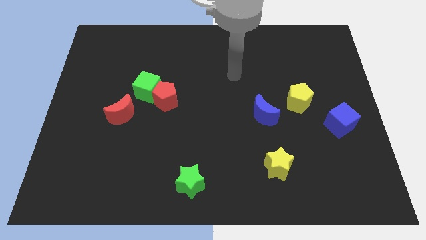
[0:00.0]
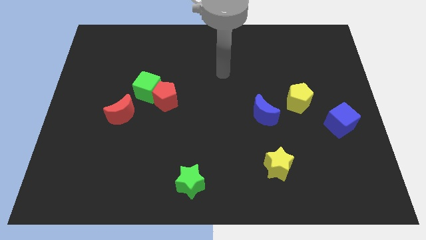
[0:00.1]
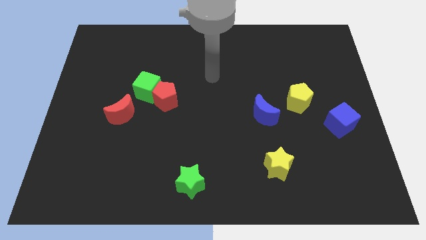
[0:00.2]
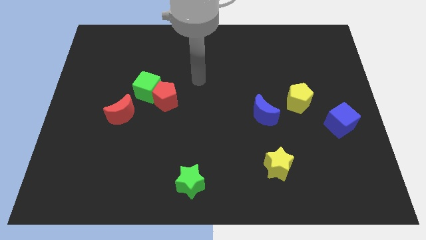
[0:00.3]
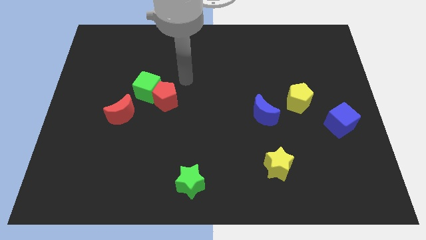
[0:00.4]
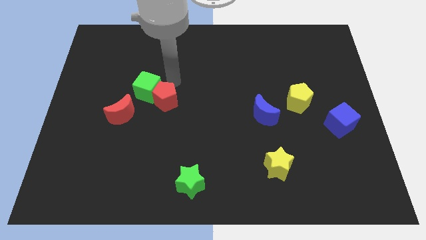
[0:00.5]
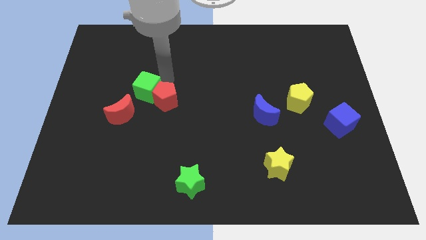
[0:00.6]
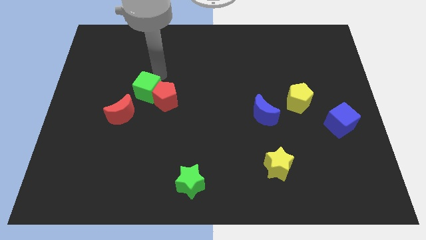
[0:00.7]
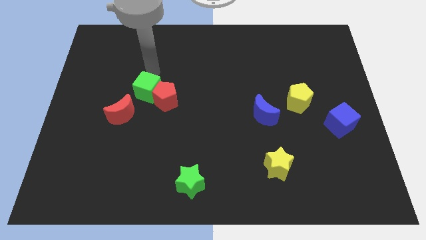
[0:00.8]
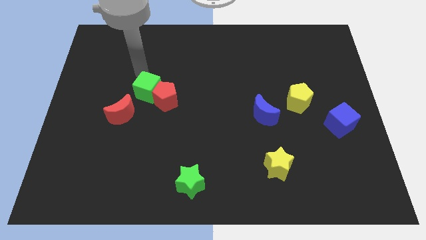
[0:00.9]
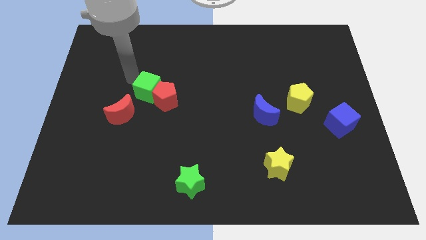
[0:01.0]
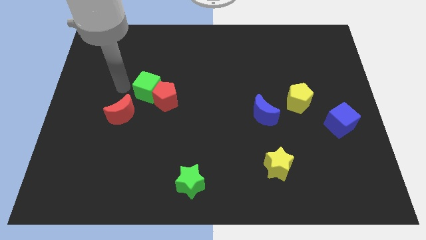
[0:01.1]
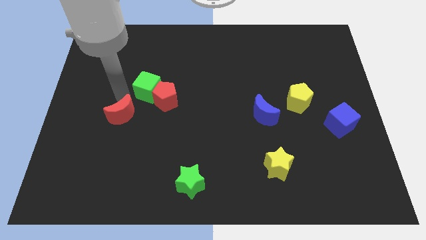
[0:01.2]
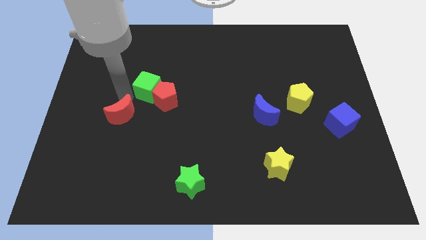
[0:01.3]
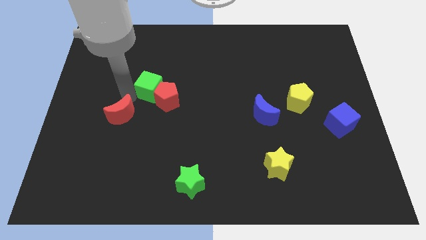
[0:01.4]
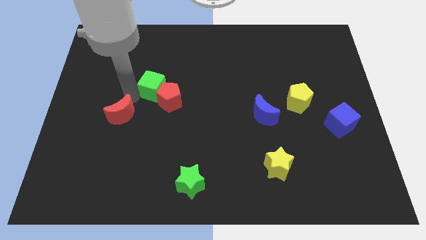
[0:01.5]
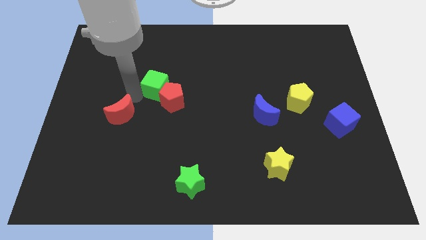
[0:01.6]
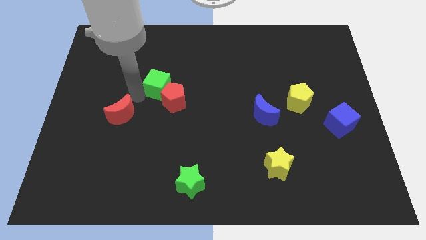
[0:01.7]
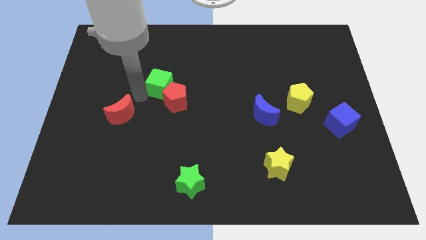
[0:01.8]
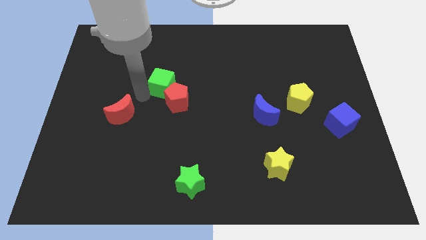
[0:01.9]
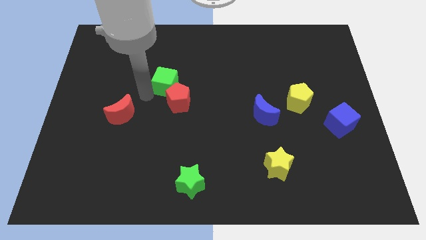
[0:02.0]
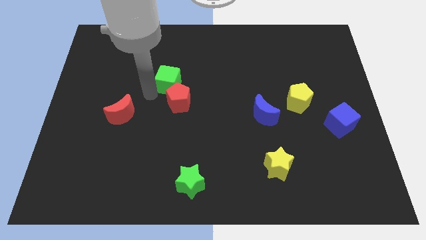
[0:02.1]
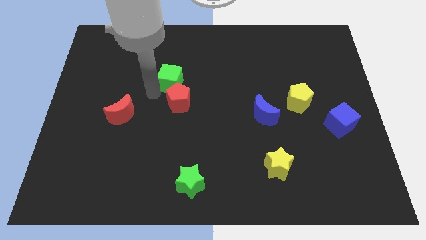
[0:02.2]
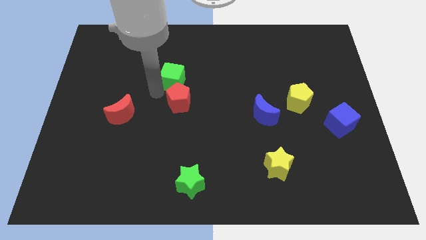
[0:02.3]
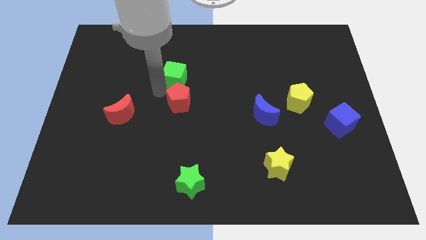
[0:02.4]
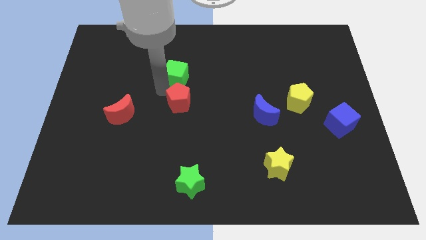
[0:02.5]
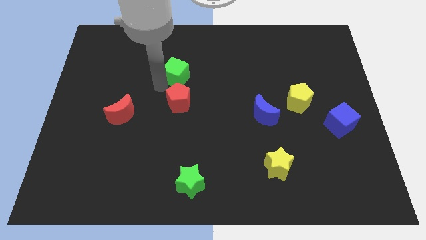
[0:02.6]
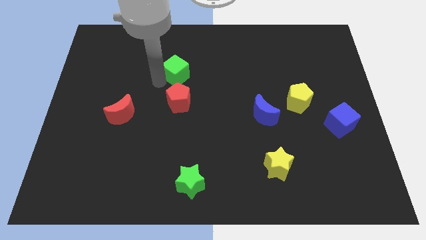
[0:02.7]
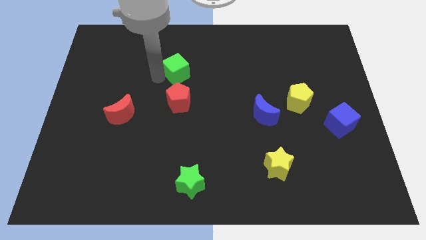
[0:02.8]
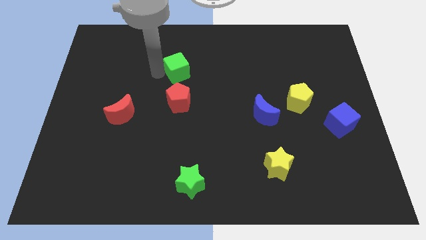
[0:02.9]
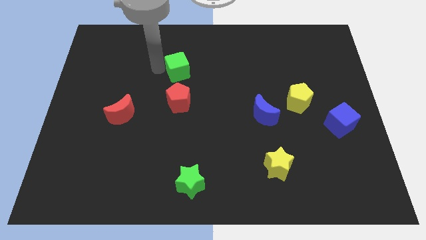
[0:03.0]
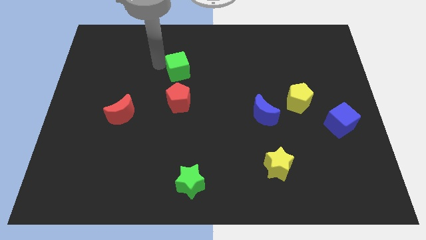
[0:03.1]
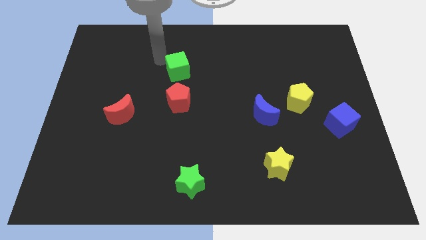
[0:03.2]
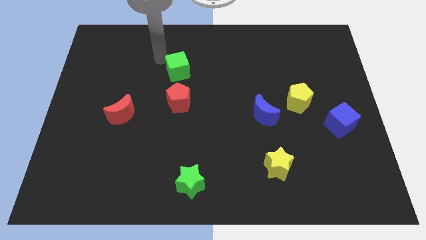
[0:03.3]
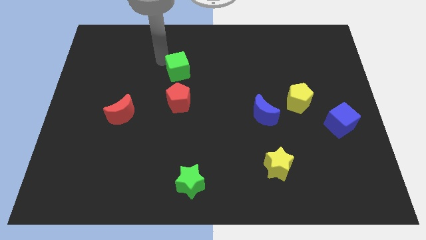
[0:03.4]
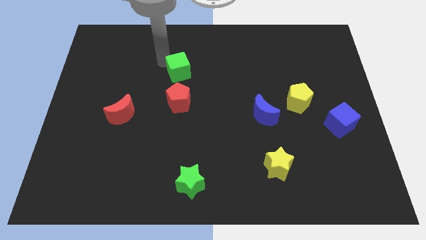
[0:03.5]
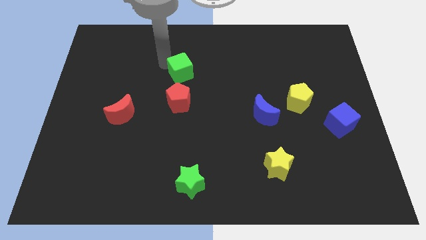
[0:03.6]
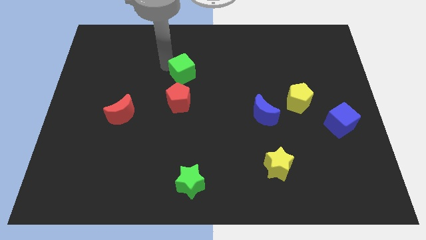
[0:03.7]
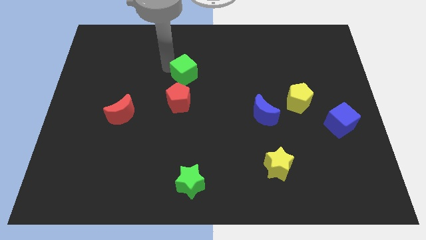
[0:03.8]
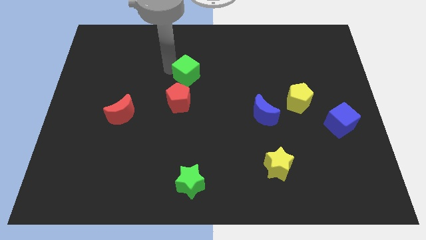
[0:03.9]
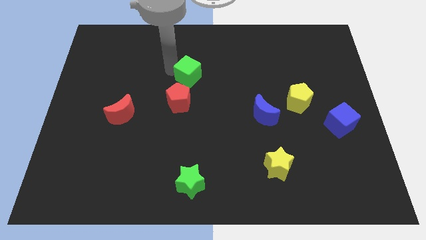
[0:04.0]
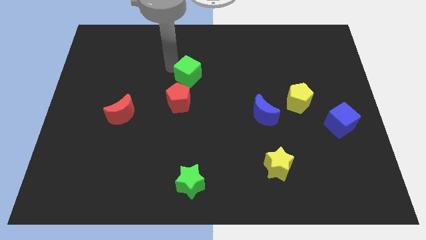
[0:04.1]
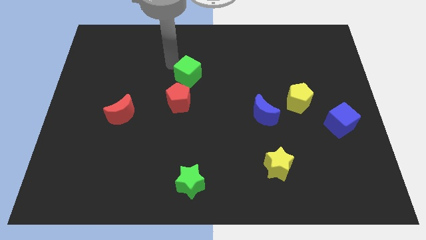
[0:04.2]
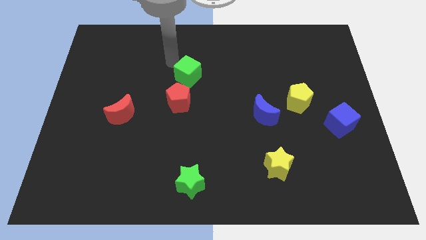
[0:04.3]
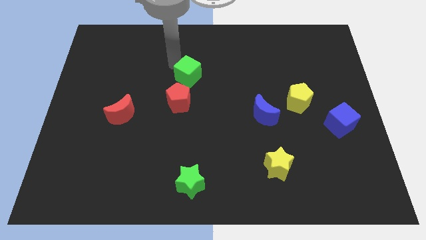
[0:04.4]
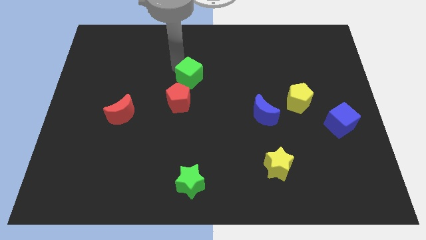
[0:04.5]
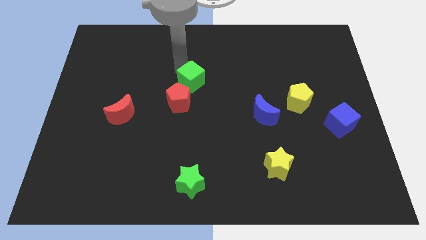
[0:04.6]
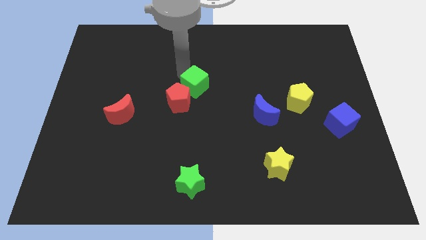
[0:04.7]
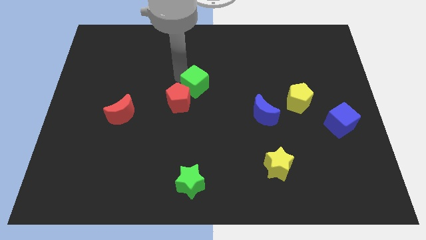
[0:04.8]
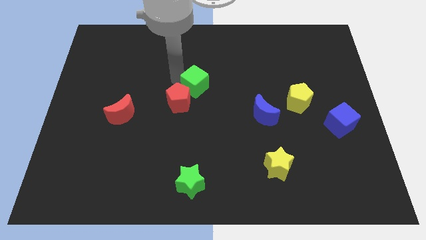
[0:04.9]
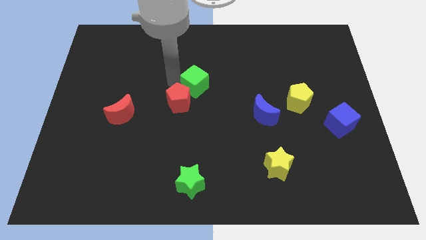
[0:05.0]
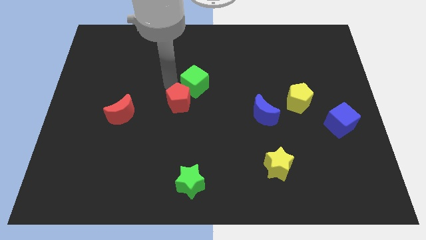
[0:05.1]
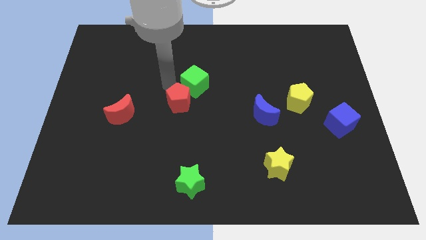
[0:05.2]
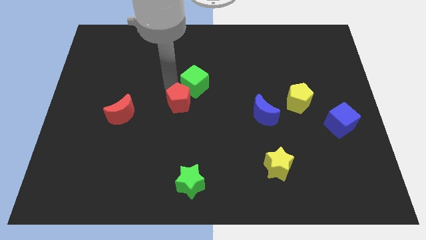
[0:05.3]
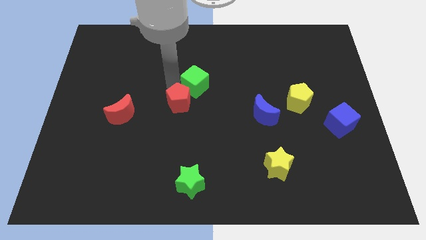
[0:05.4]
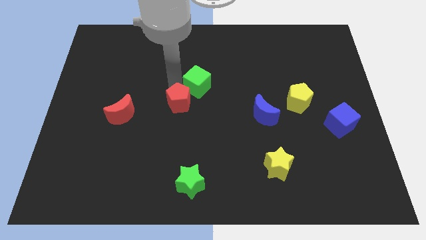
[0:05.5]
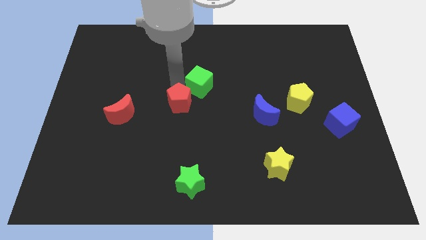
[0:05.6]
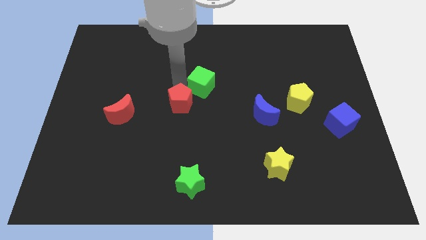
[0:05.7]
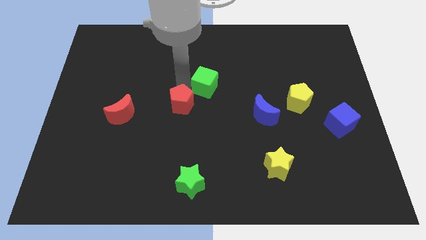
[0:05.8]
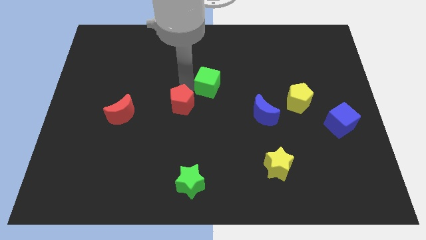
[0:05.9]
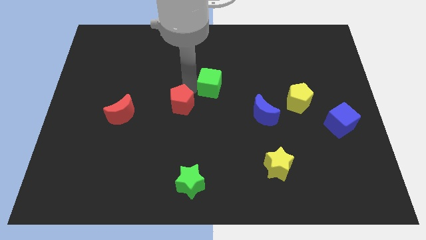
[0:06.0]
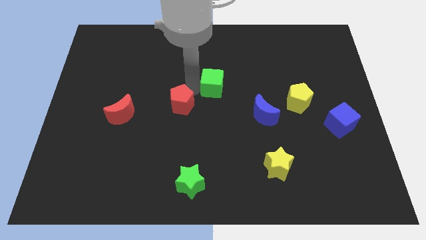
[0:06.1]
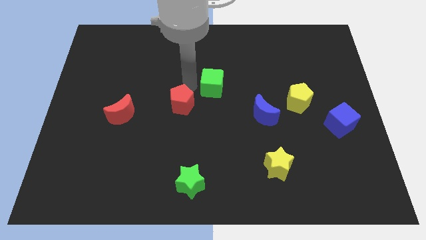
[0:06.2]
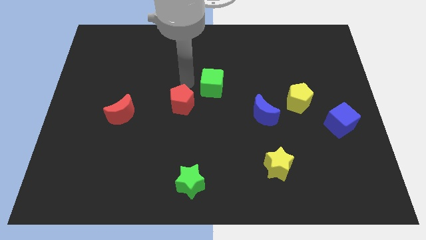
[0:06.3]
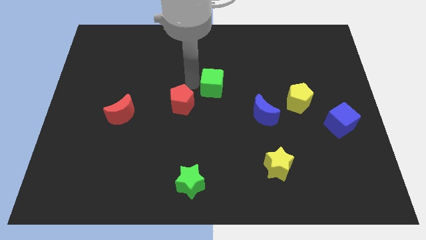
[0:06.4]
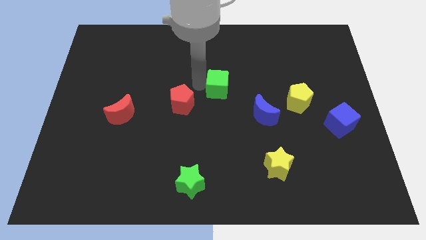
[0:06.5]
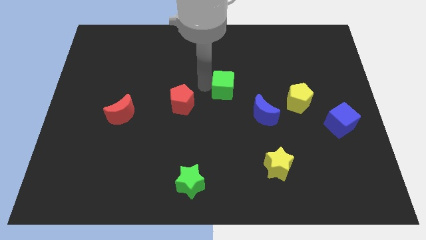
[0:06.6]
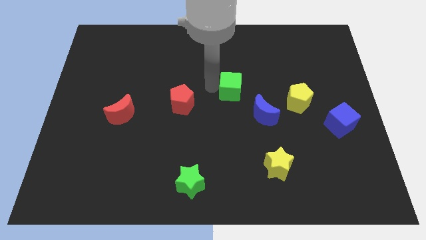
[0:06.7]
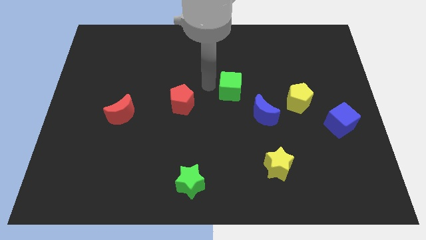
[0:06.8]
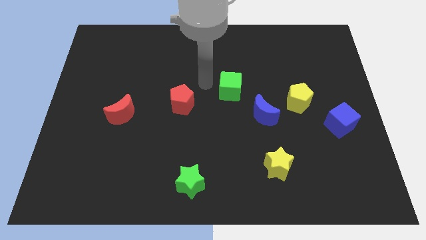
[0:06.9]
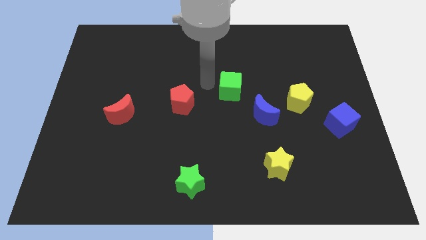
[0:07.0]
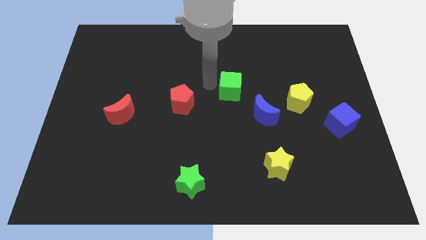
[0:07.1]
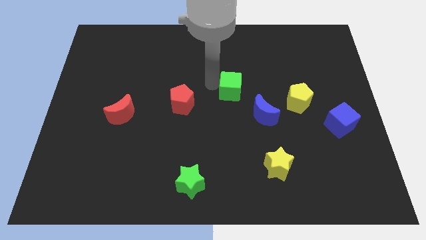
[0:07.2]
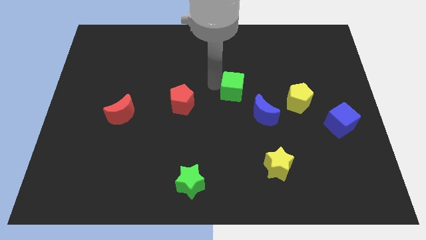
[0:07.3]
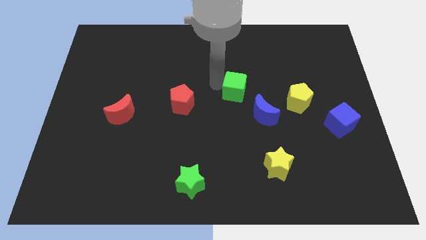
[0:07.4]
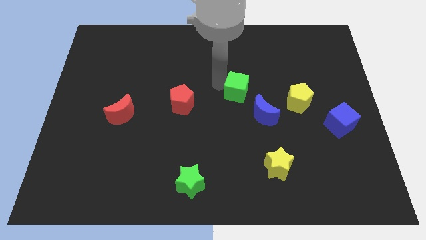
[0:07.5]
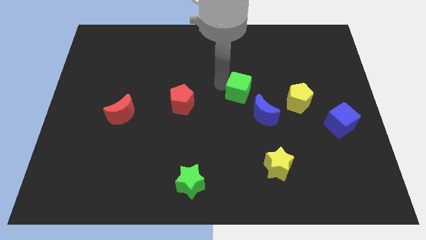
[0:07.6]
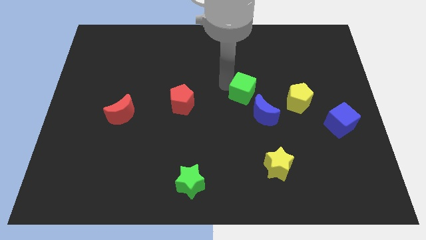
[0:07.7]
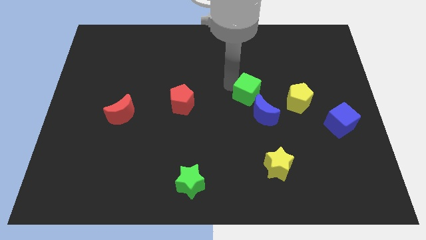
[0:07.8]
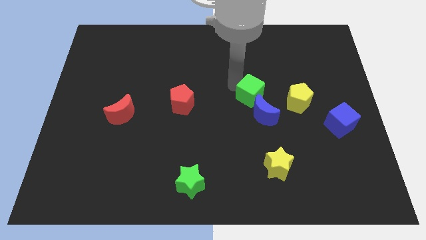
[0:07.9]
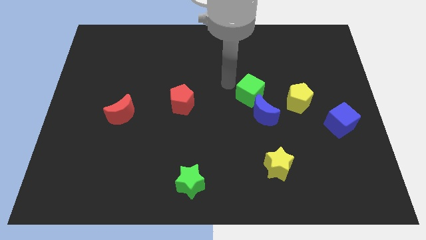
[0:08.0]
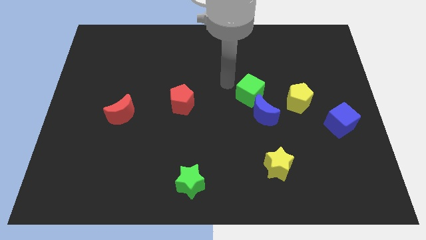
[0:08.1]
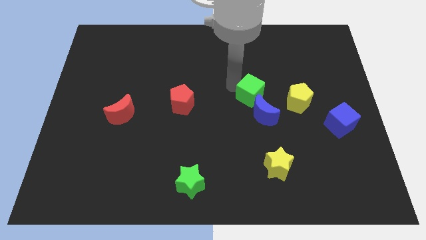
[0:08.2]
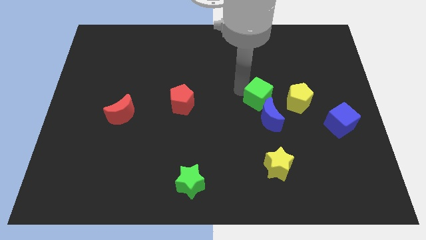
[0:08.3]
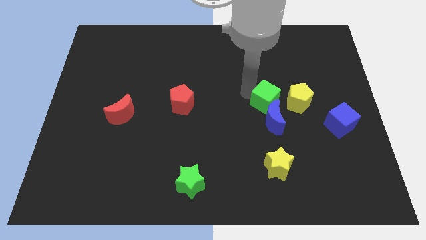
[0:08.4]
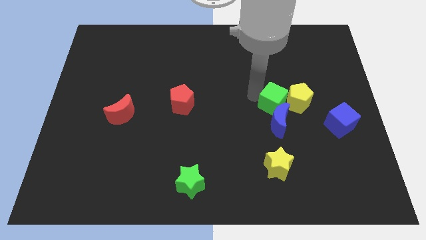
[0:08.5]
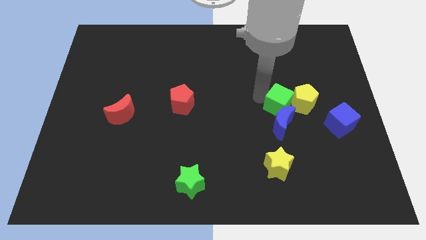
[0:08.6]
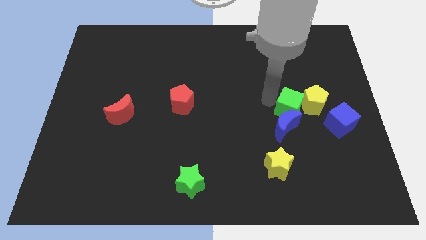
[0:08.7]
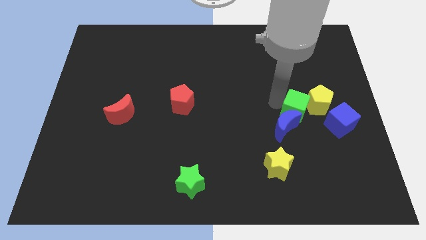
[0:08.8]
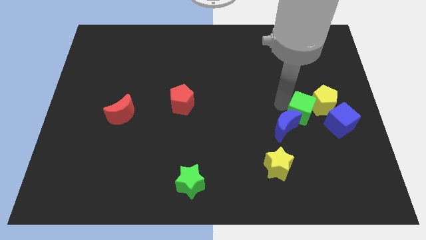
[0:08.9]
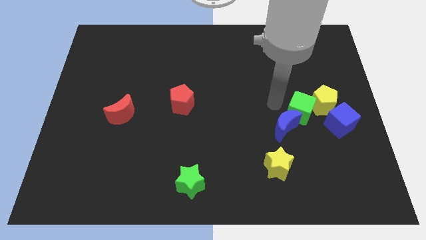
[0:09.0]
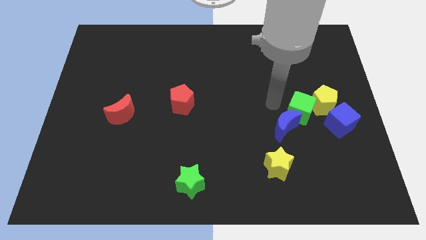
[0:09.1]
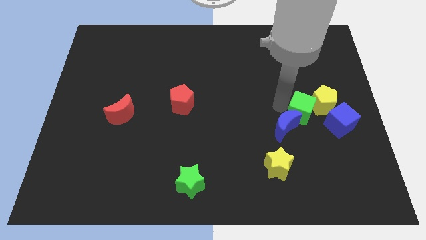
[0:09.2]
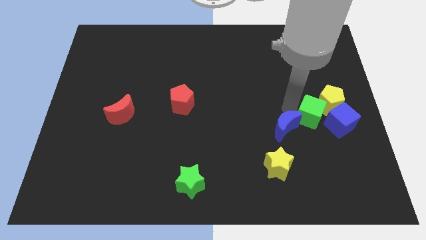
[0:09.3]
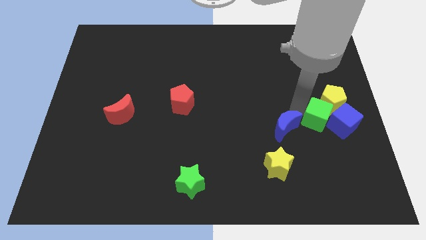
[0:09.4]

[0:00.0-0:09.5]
move the green cube towards the blue cube
